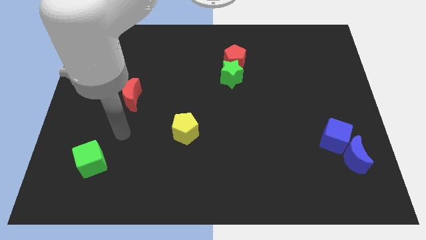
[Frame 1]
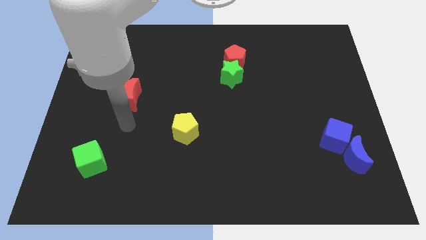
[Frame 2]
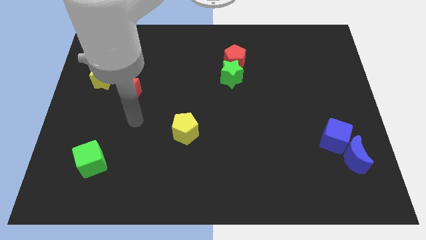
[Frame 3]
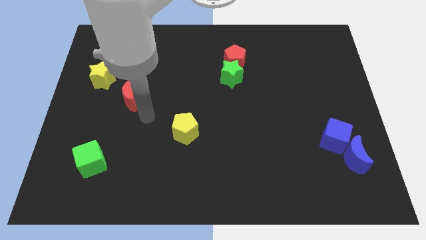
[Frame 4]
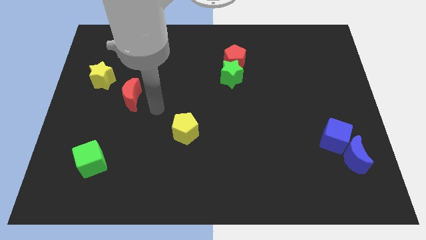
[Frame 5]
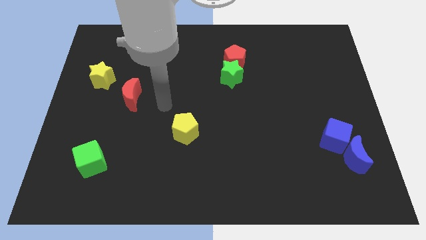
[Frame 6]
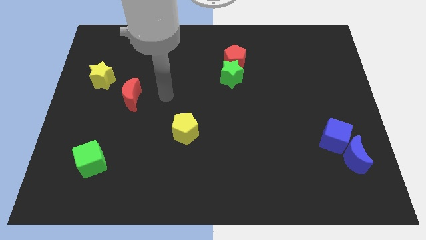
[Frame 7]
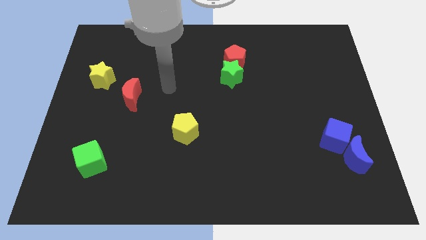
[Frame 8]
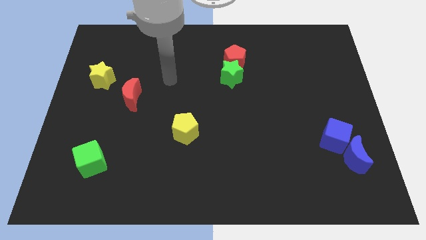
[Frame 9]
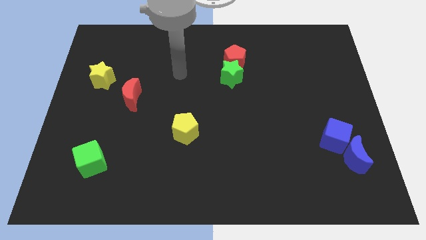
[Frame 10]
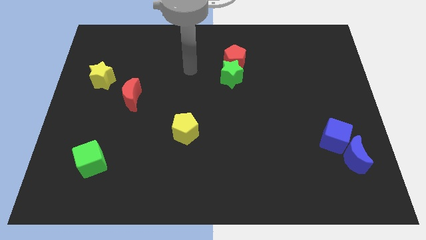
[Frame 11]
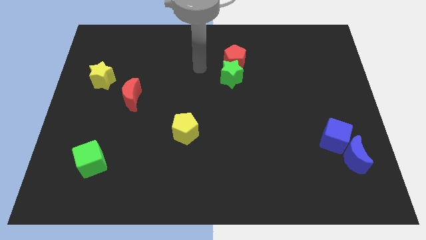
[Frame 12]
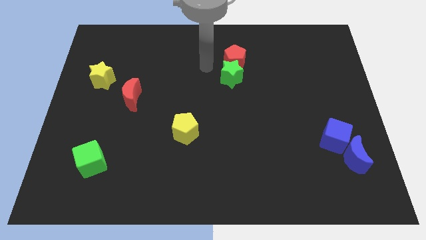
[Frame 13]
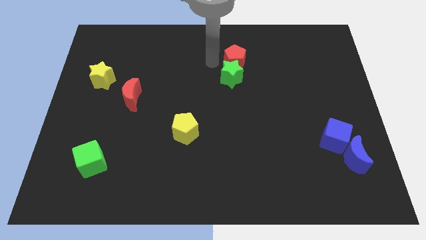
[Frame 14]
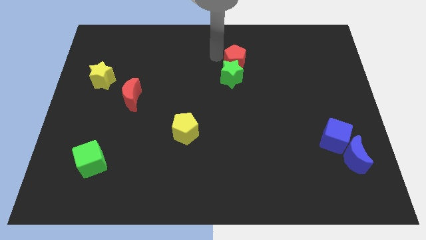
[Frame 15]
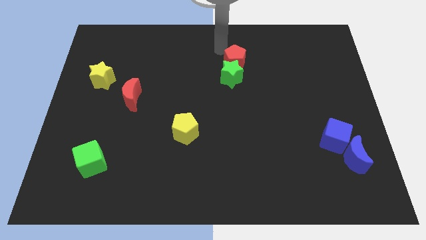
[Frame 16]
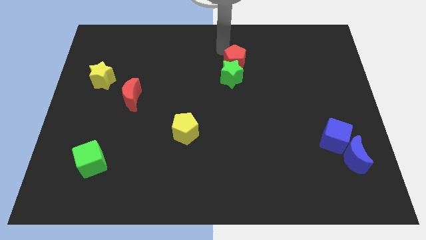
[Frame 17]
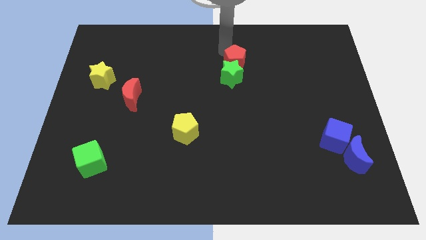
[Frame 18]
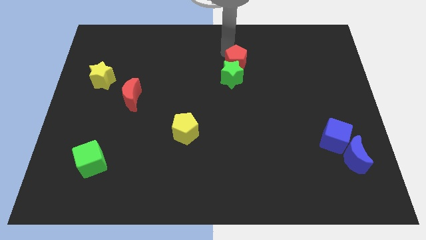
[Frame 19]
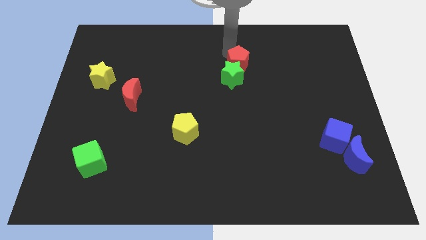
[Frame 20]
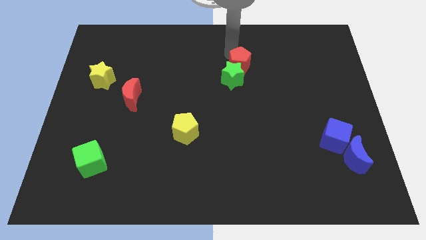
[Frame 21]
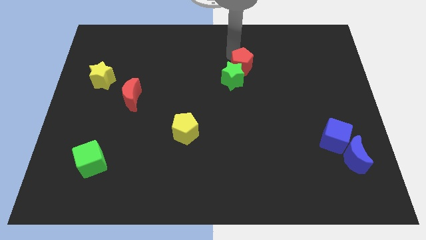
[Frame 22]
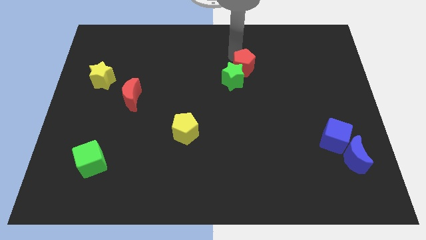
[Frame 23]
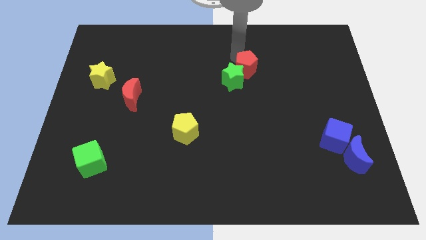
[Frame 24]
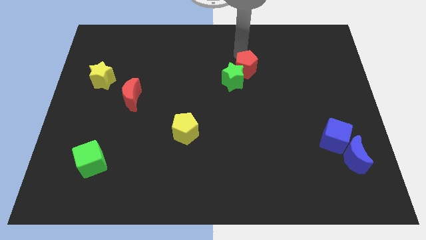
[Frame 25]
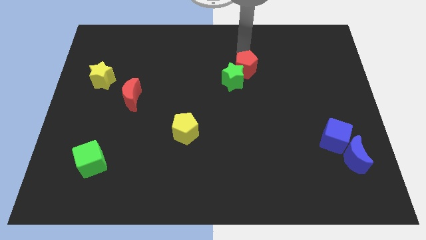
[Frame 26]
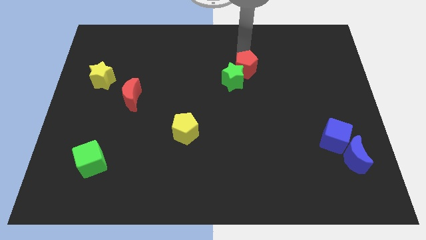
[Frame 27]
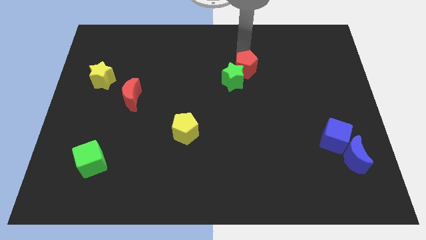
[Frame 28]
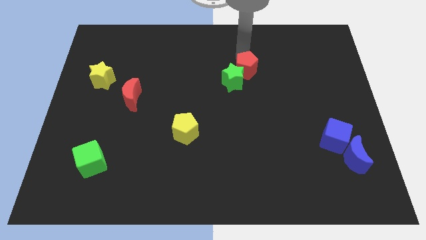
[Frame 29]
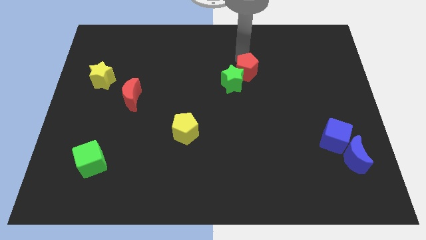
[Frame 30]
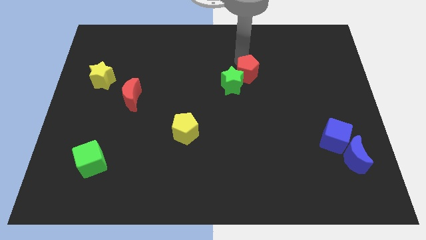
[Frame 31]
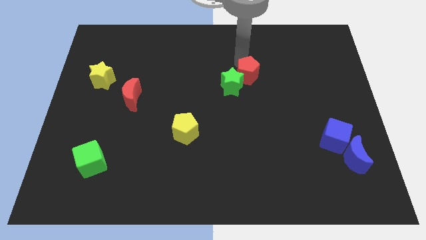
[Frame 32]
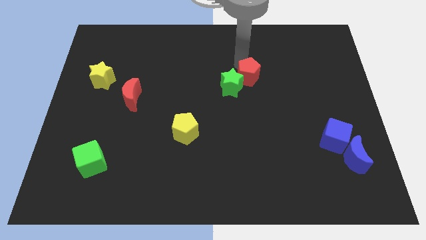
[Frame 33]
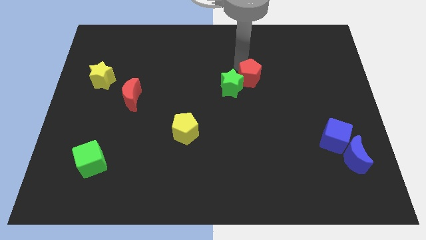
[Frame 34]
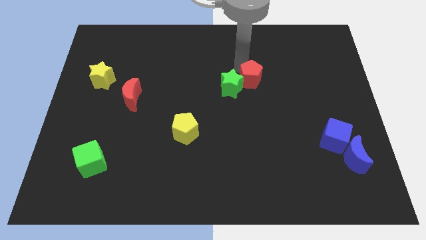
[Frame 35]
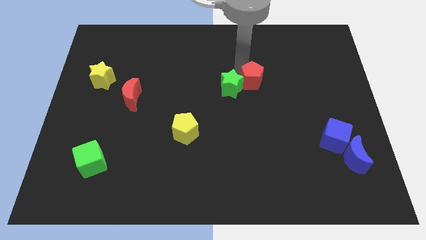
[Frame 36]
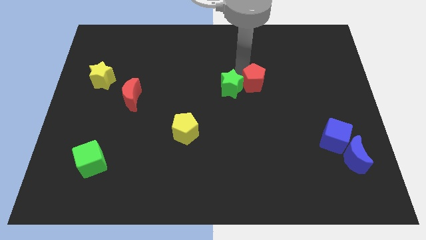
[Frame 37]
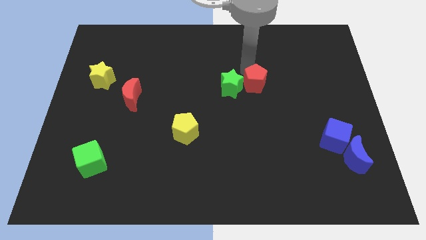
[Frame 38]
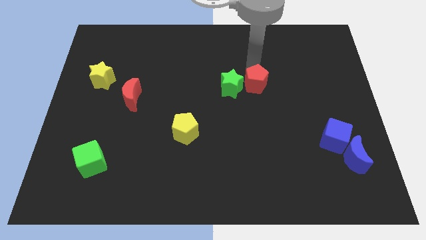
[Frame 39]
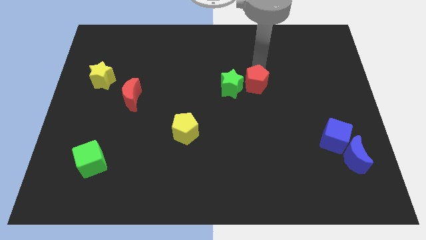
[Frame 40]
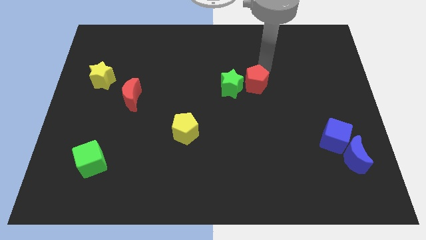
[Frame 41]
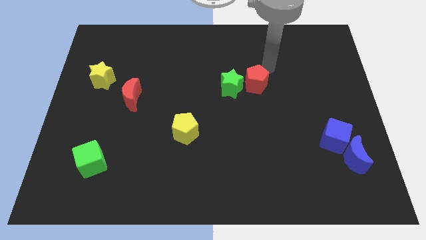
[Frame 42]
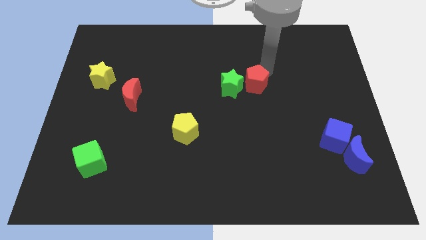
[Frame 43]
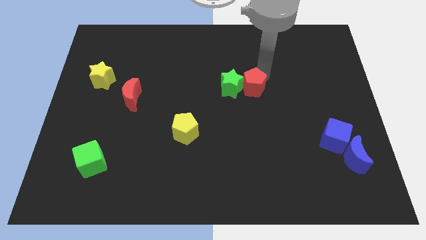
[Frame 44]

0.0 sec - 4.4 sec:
push the red pentagon slightly down

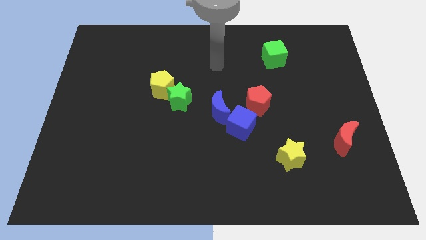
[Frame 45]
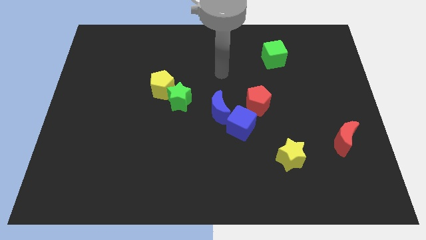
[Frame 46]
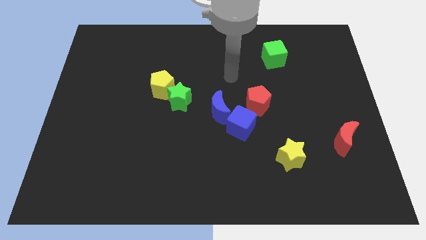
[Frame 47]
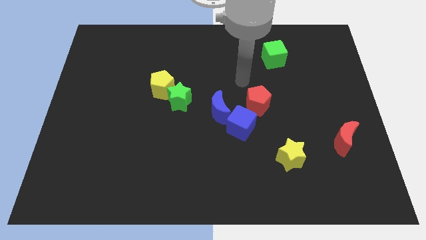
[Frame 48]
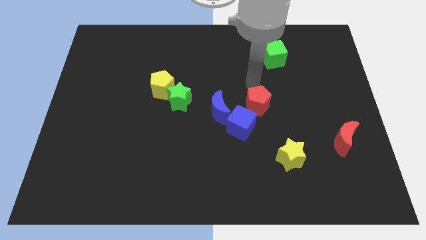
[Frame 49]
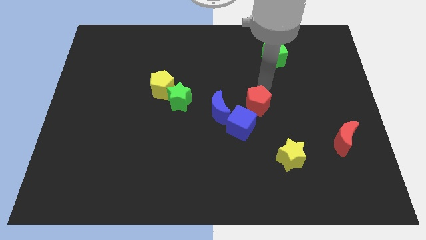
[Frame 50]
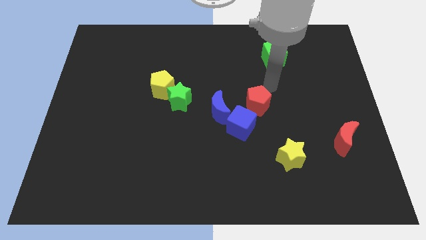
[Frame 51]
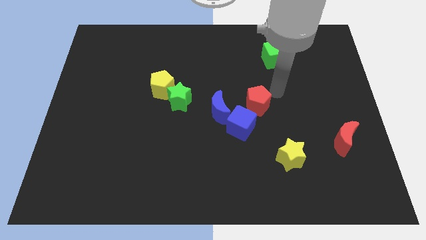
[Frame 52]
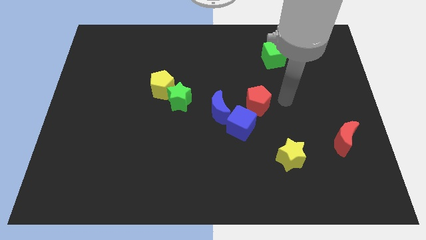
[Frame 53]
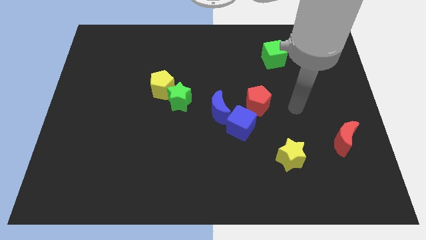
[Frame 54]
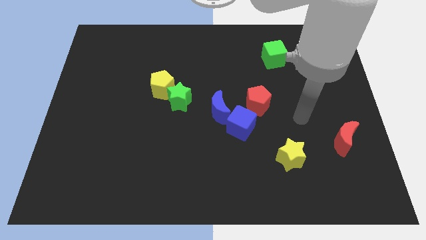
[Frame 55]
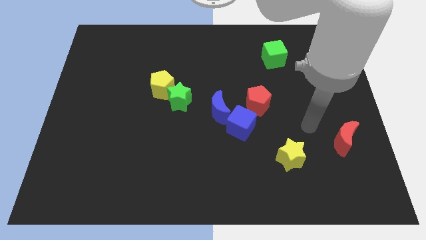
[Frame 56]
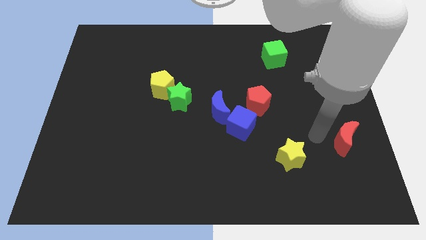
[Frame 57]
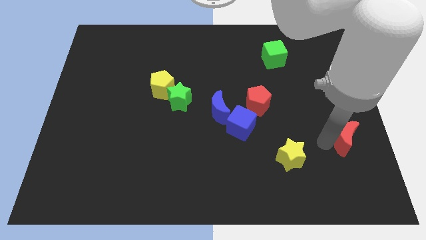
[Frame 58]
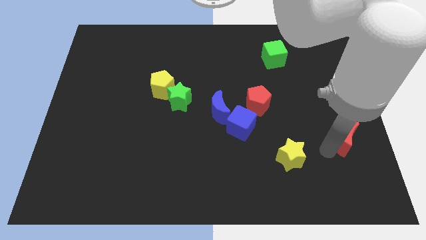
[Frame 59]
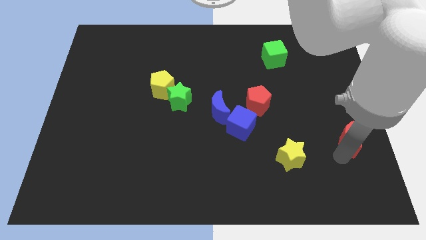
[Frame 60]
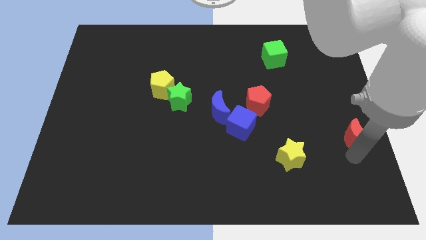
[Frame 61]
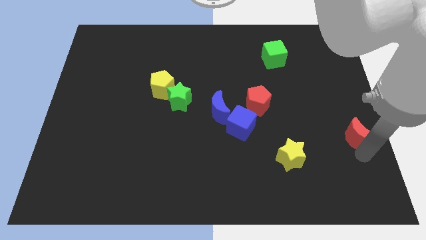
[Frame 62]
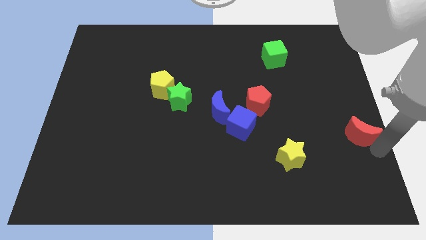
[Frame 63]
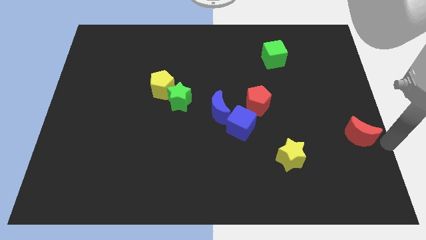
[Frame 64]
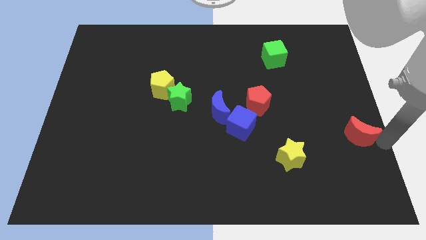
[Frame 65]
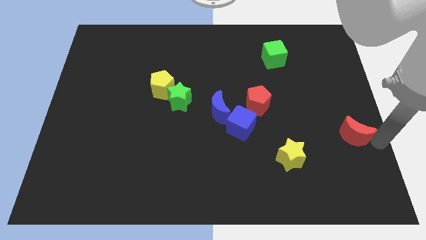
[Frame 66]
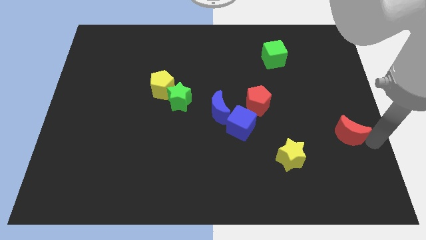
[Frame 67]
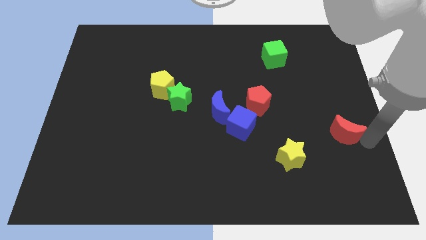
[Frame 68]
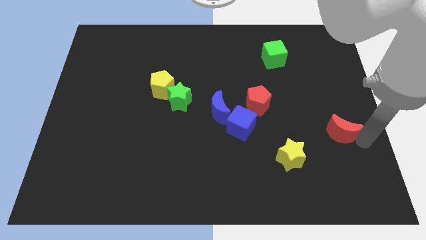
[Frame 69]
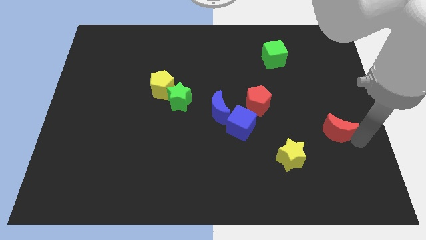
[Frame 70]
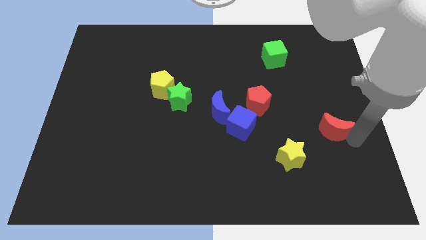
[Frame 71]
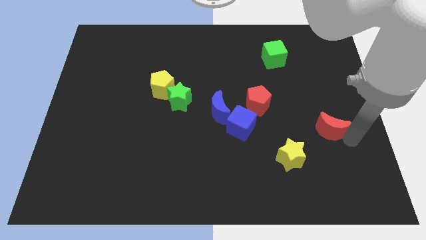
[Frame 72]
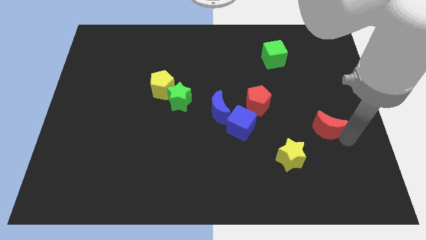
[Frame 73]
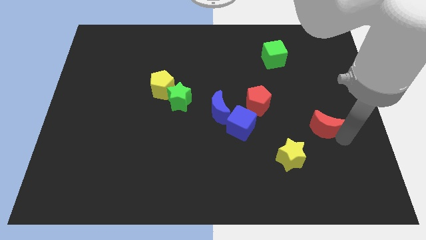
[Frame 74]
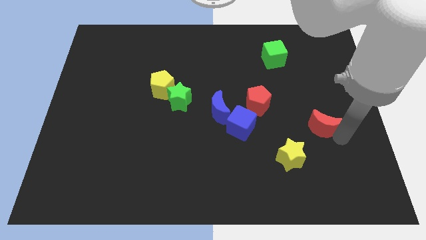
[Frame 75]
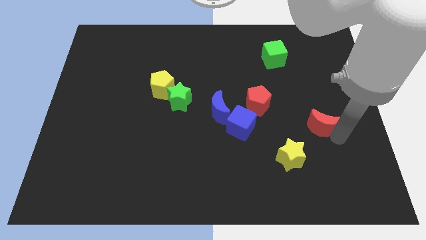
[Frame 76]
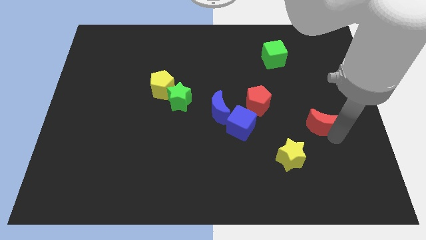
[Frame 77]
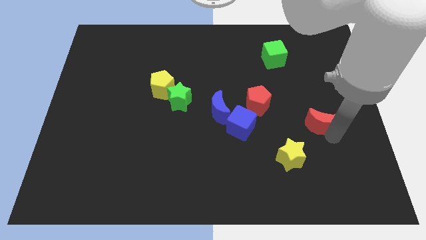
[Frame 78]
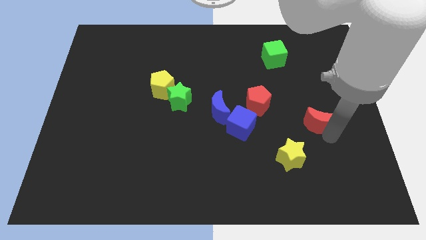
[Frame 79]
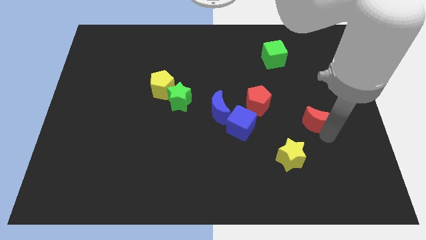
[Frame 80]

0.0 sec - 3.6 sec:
slide the red moon up and to the left somewhat
